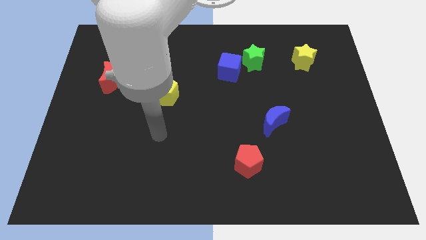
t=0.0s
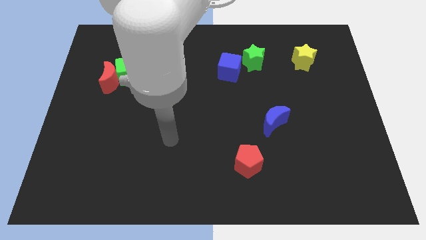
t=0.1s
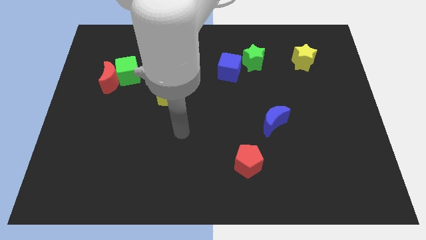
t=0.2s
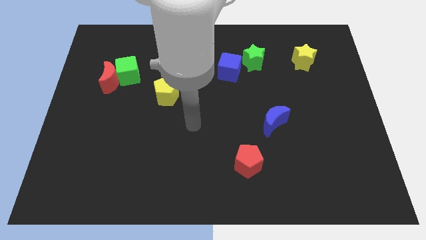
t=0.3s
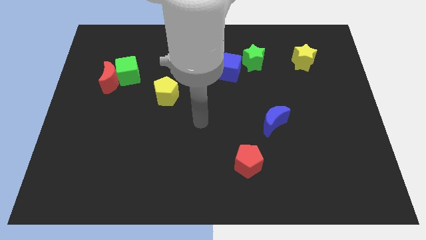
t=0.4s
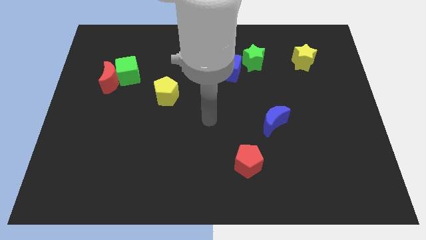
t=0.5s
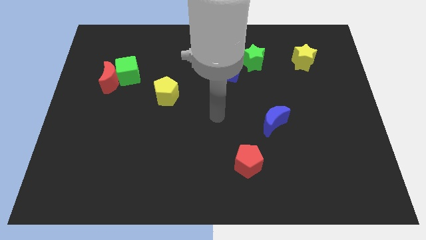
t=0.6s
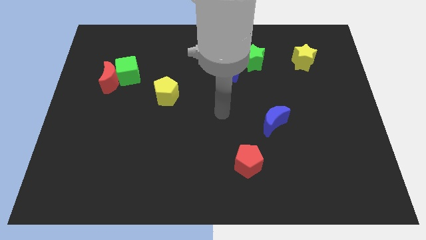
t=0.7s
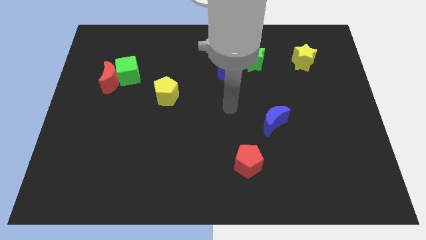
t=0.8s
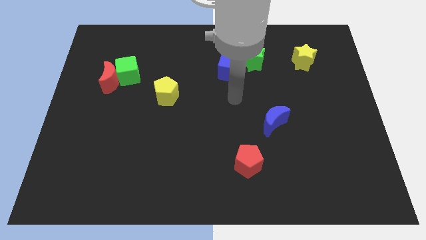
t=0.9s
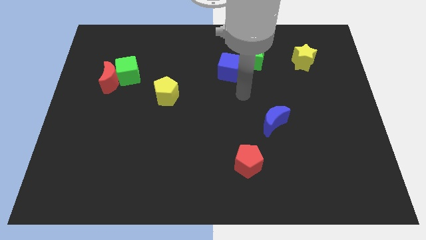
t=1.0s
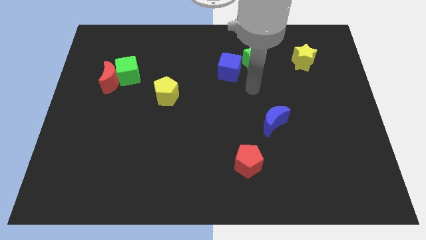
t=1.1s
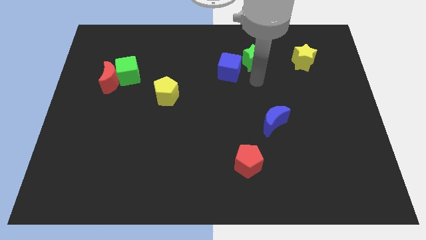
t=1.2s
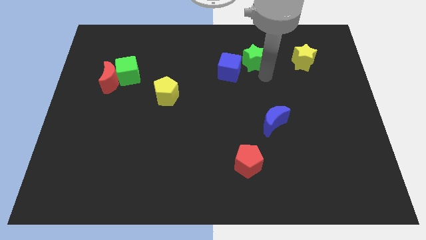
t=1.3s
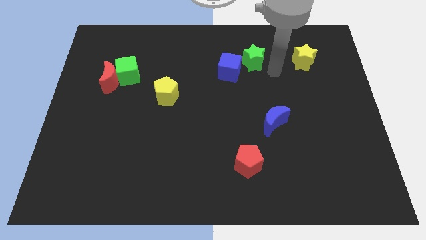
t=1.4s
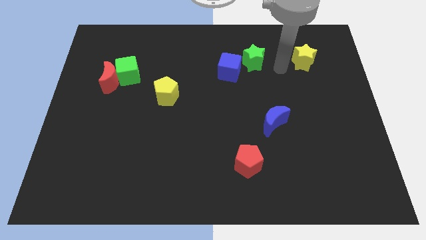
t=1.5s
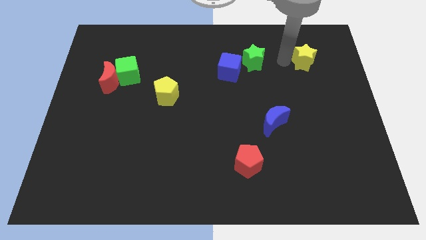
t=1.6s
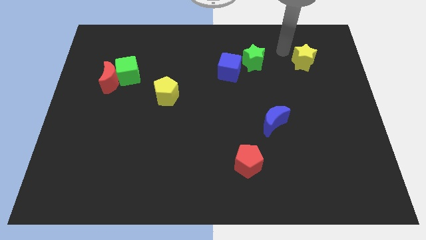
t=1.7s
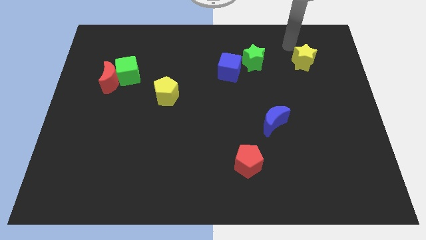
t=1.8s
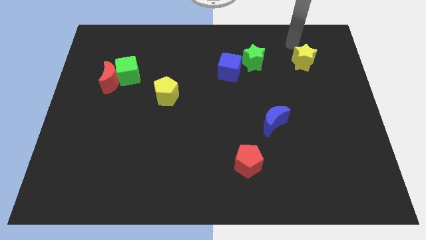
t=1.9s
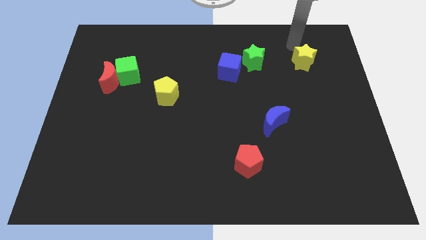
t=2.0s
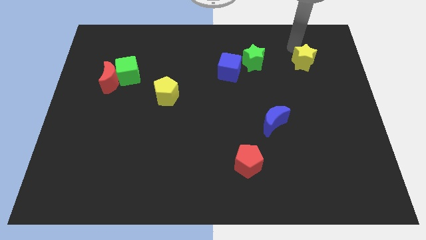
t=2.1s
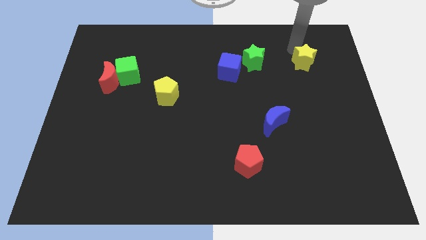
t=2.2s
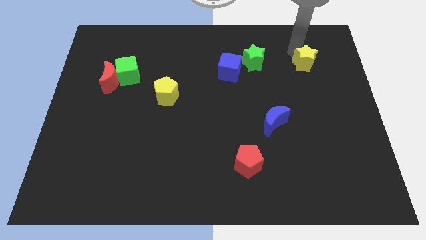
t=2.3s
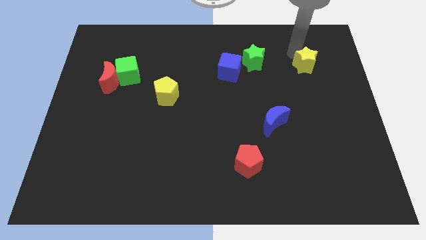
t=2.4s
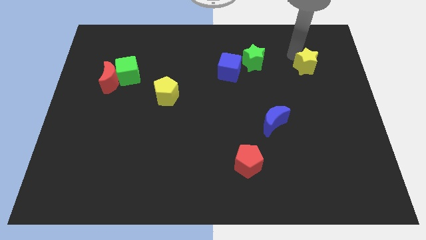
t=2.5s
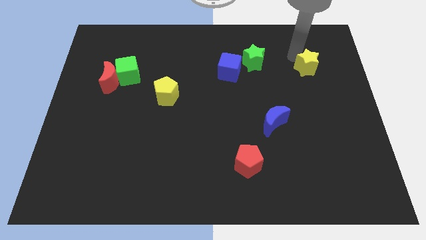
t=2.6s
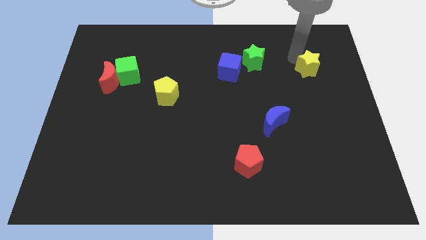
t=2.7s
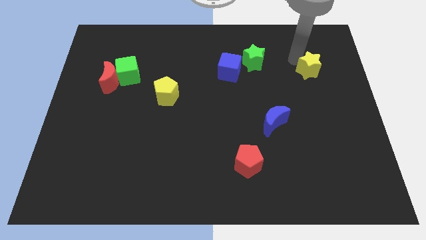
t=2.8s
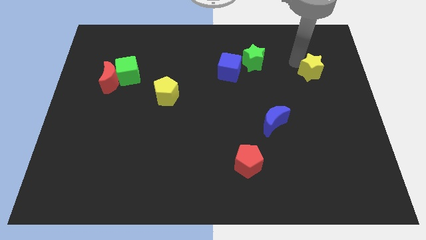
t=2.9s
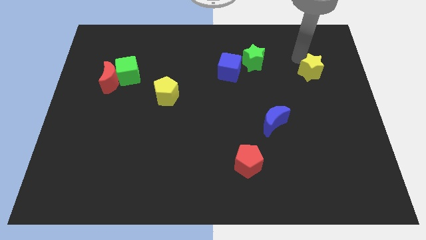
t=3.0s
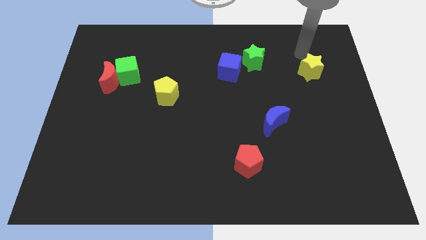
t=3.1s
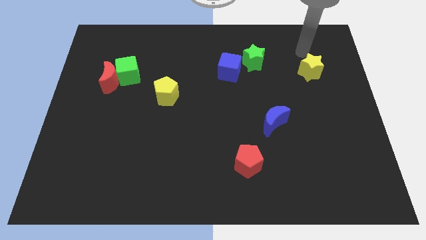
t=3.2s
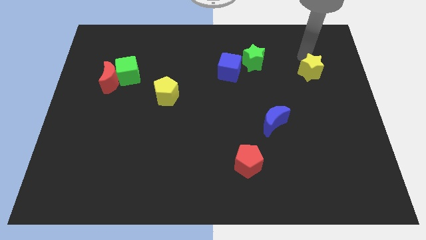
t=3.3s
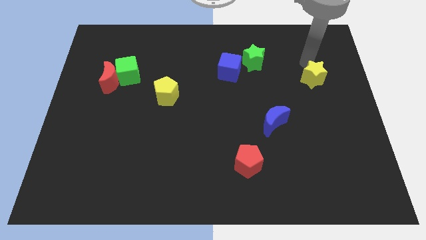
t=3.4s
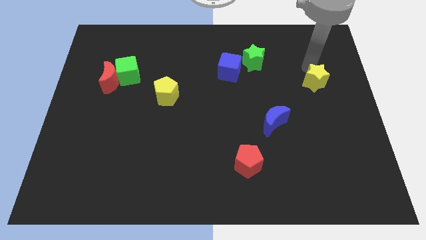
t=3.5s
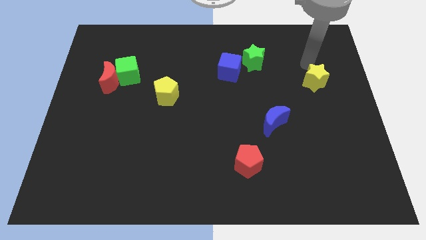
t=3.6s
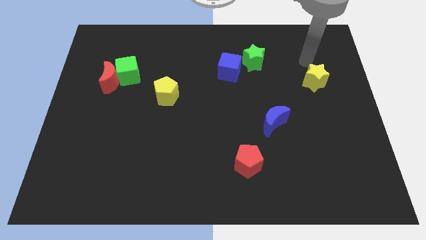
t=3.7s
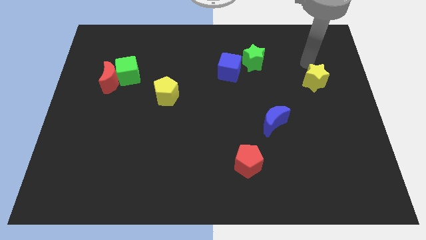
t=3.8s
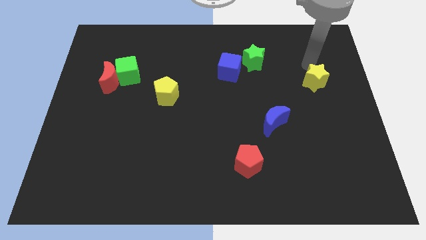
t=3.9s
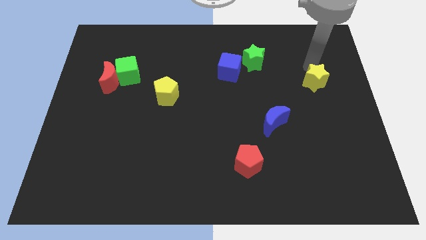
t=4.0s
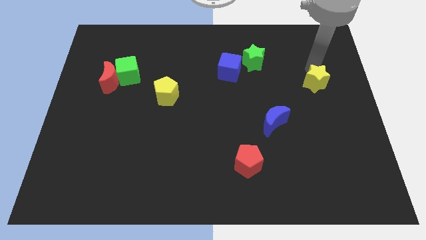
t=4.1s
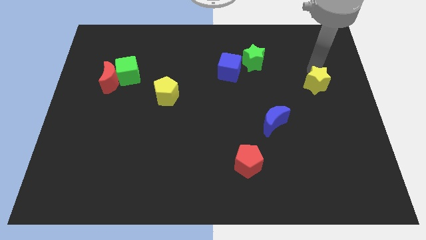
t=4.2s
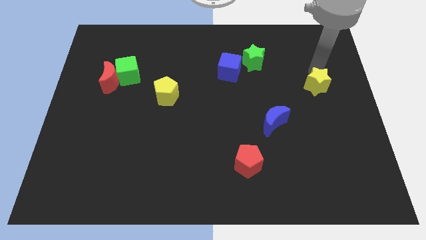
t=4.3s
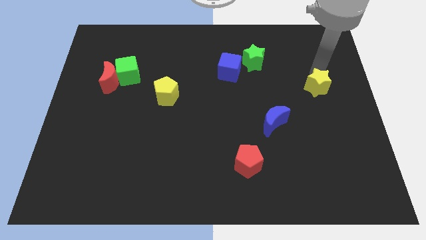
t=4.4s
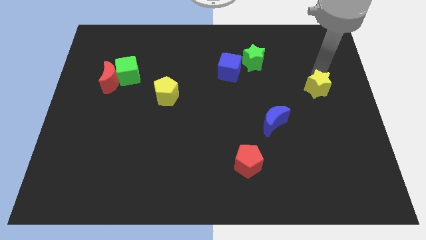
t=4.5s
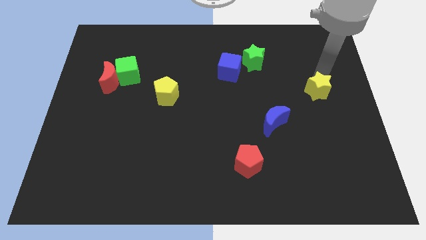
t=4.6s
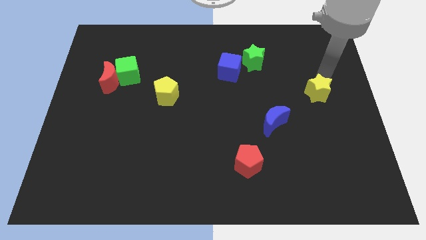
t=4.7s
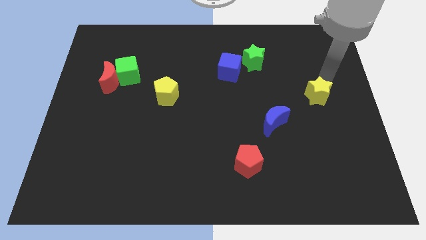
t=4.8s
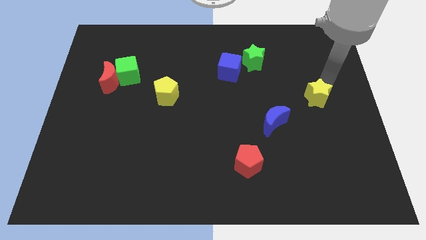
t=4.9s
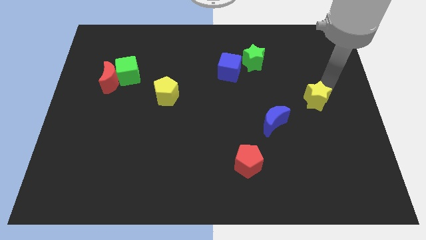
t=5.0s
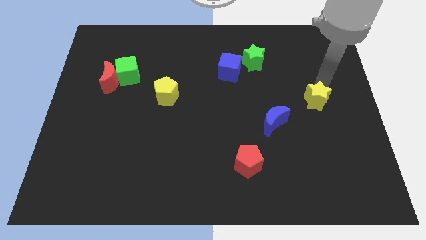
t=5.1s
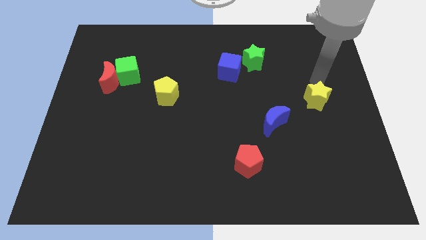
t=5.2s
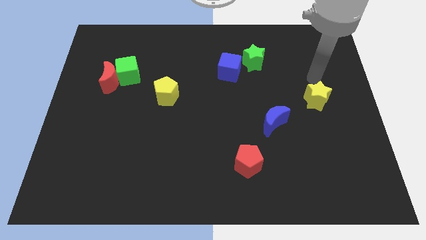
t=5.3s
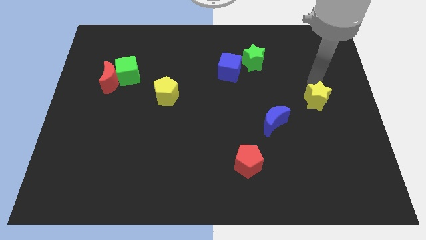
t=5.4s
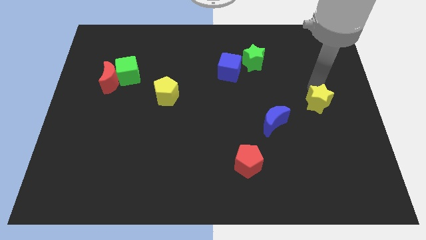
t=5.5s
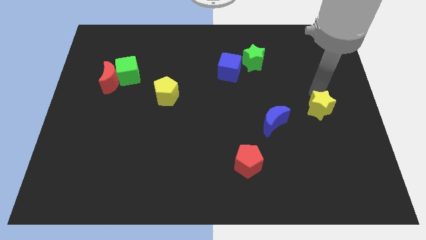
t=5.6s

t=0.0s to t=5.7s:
put the yellow star to the right of the blue moon
